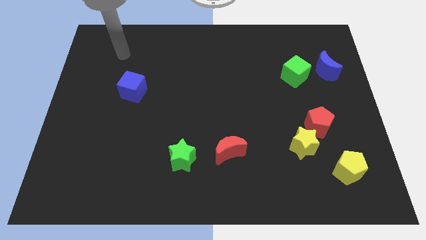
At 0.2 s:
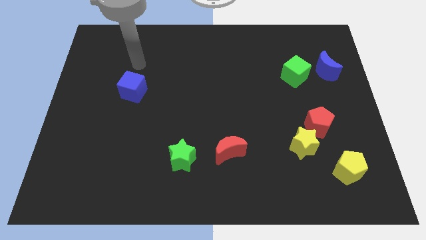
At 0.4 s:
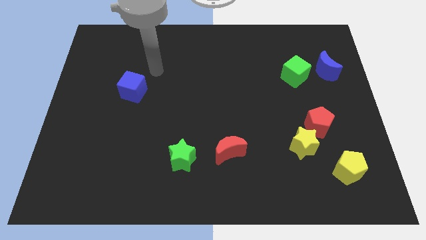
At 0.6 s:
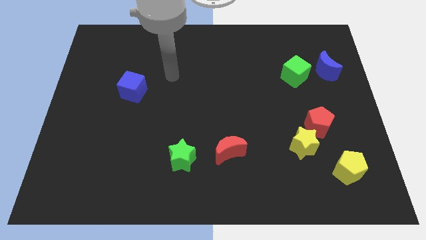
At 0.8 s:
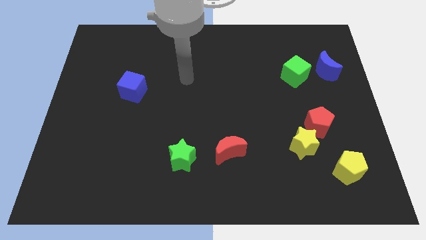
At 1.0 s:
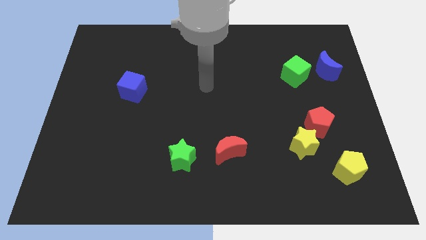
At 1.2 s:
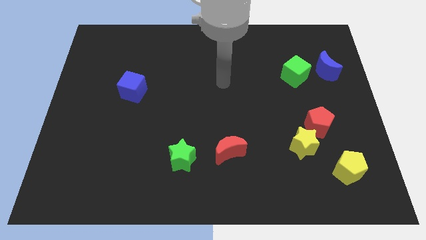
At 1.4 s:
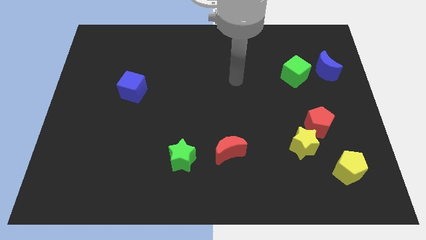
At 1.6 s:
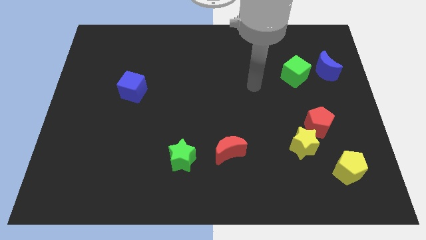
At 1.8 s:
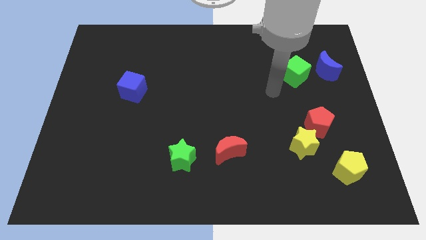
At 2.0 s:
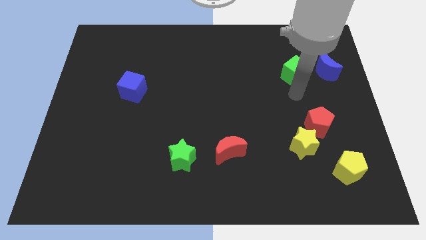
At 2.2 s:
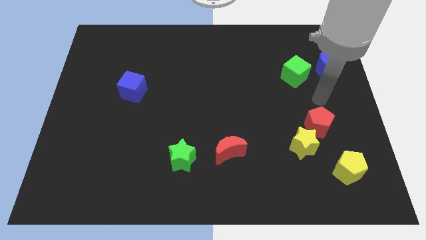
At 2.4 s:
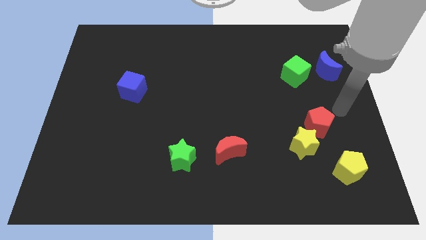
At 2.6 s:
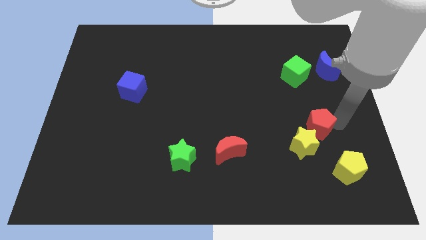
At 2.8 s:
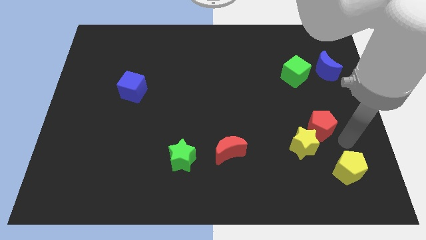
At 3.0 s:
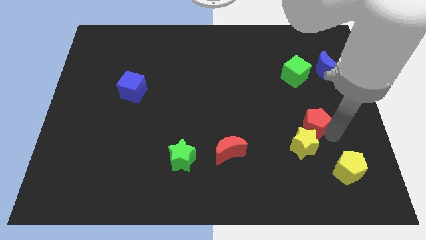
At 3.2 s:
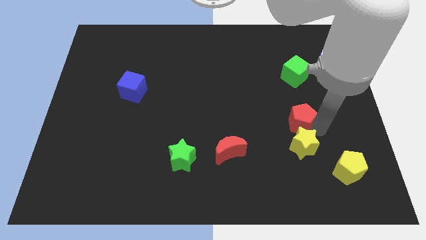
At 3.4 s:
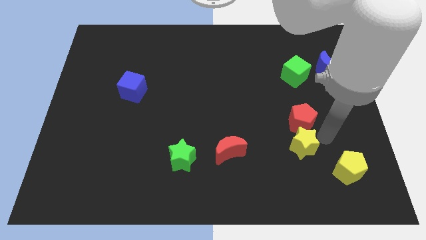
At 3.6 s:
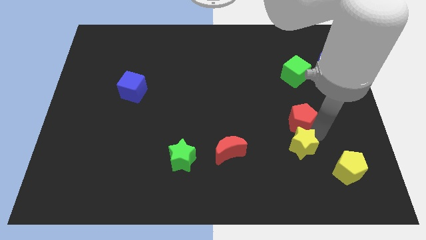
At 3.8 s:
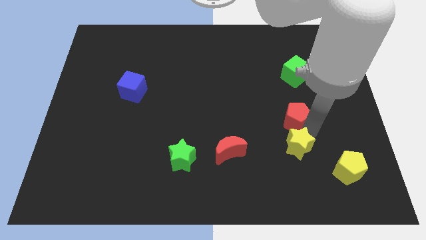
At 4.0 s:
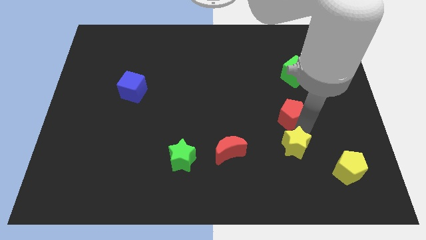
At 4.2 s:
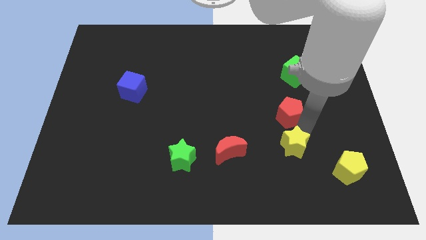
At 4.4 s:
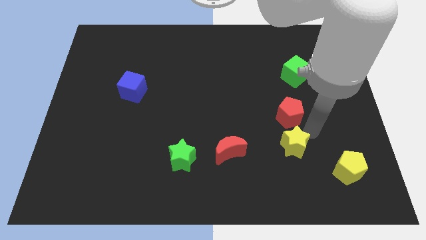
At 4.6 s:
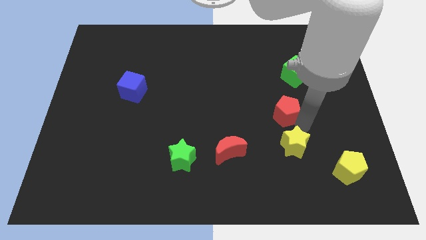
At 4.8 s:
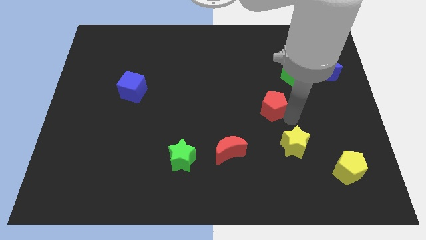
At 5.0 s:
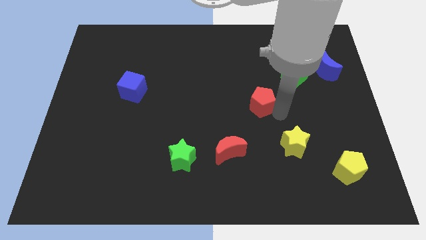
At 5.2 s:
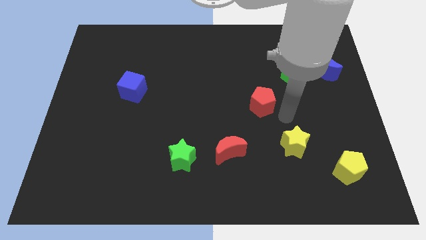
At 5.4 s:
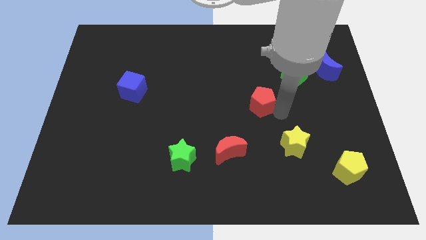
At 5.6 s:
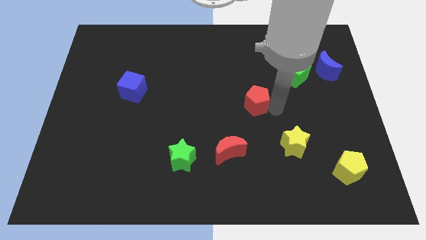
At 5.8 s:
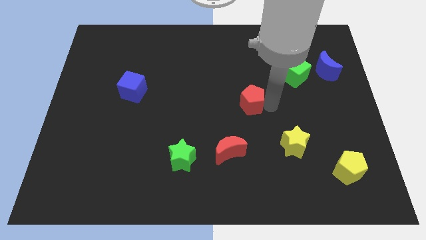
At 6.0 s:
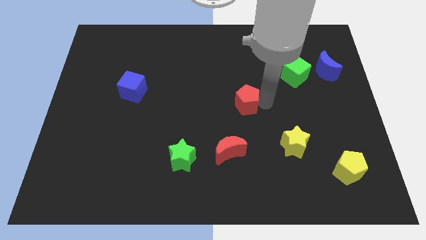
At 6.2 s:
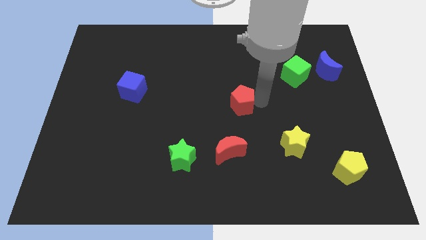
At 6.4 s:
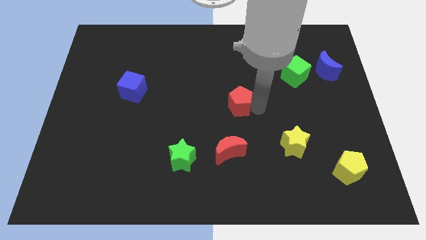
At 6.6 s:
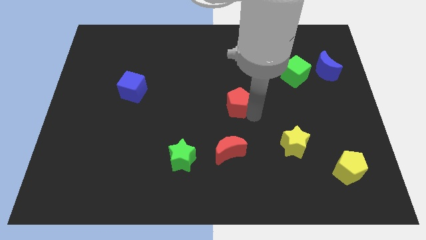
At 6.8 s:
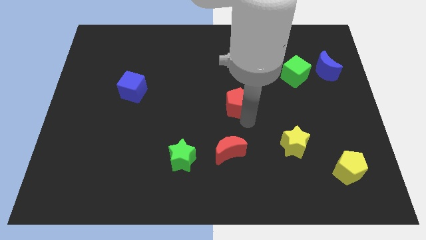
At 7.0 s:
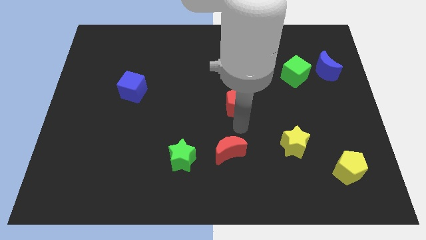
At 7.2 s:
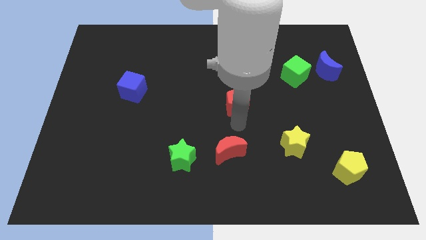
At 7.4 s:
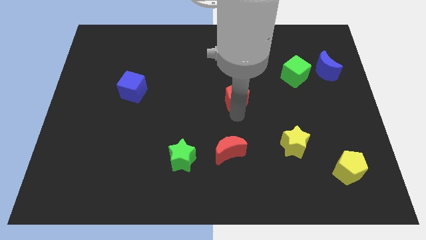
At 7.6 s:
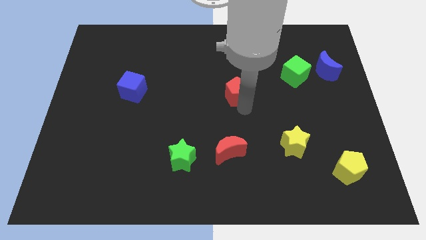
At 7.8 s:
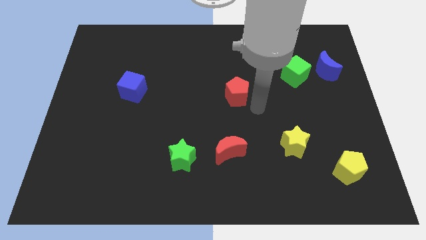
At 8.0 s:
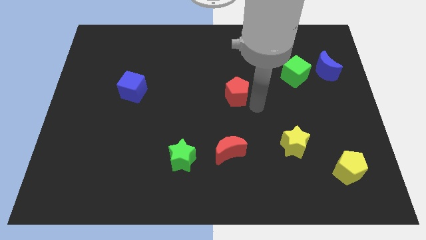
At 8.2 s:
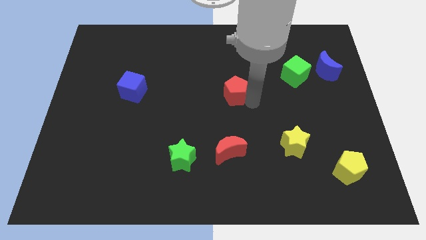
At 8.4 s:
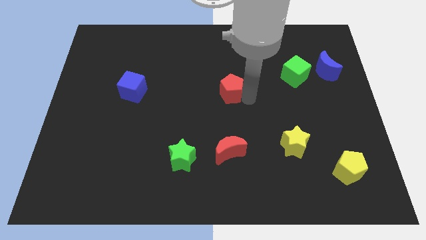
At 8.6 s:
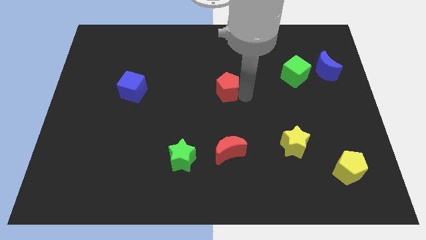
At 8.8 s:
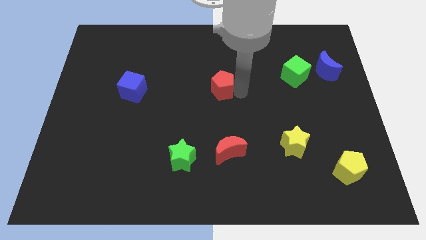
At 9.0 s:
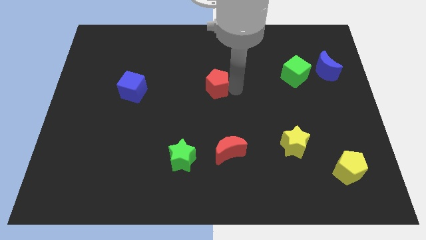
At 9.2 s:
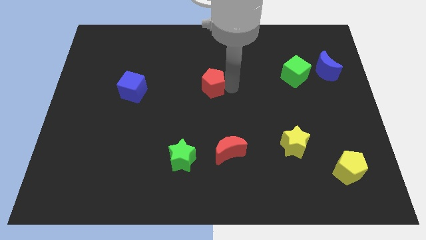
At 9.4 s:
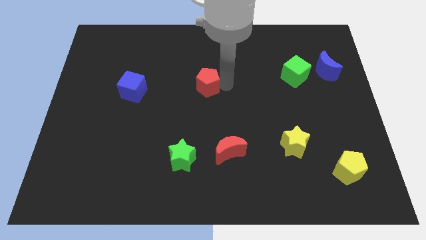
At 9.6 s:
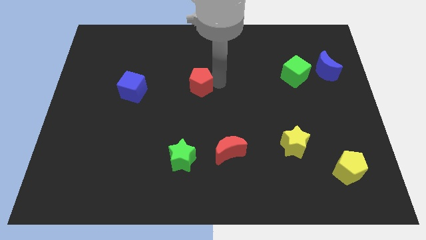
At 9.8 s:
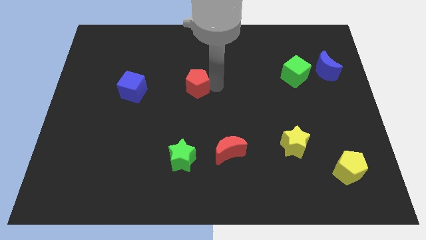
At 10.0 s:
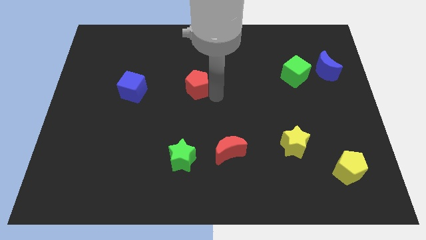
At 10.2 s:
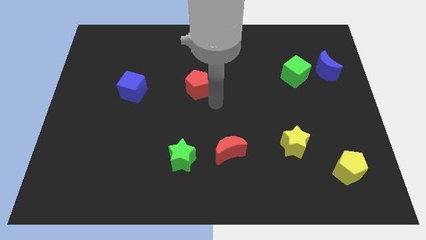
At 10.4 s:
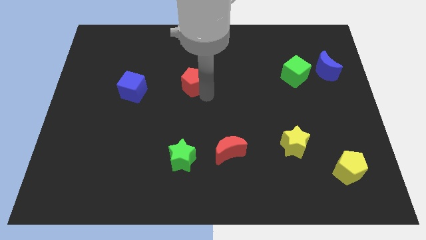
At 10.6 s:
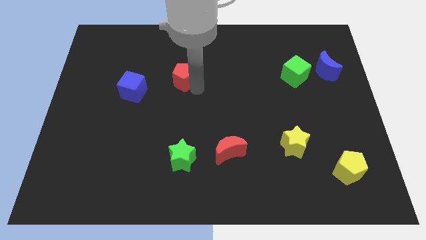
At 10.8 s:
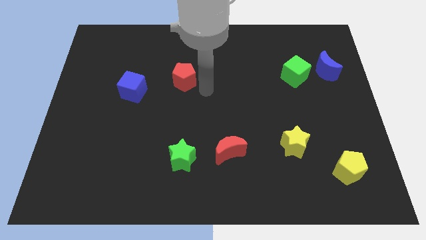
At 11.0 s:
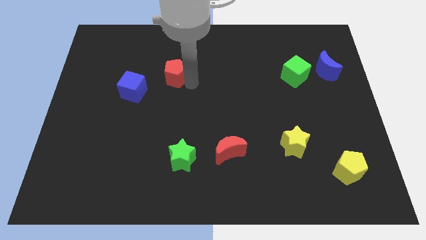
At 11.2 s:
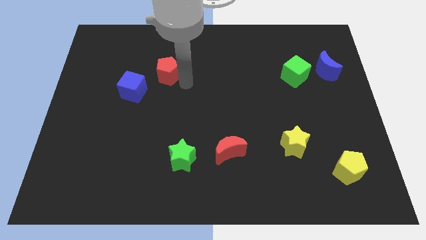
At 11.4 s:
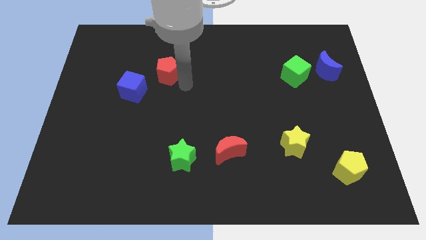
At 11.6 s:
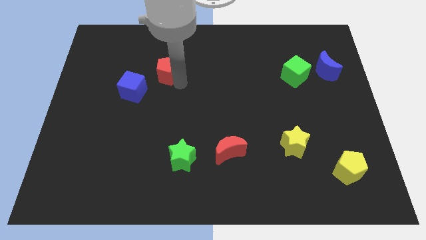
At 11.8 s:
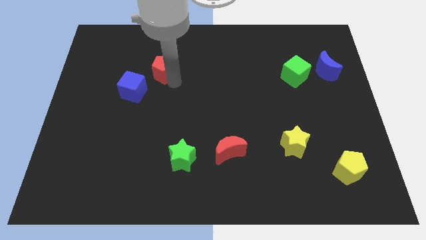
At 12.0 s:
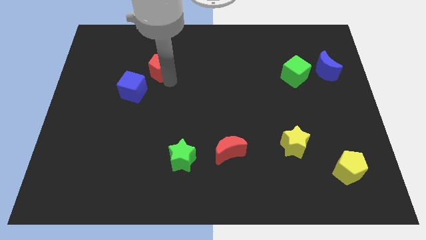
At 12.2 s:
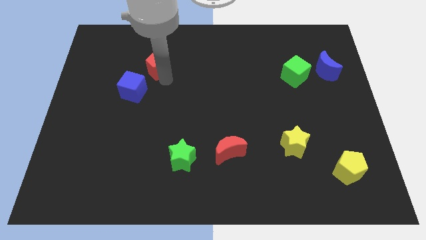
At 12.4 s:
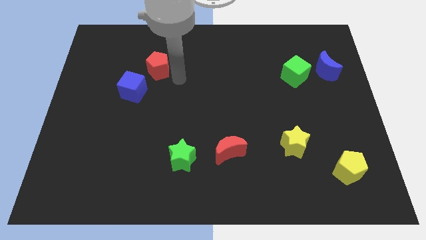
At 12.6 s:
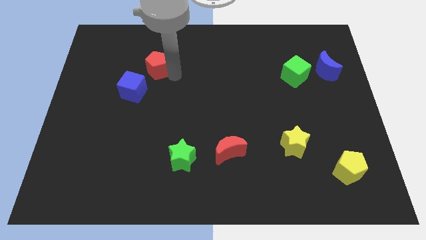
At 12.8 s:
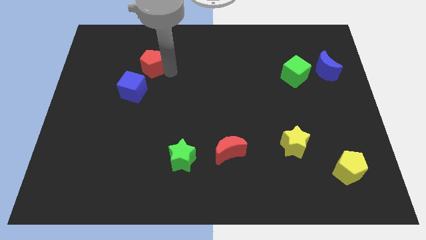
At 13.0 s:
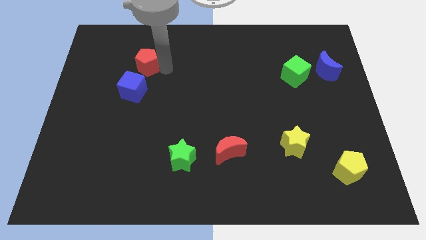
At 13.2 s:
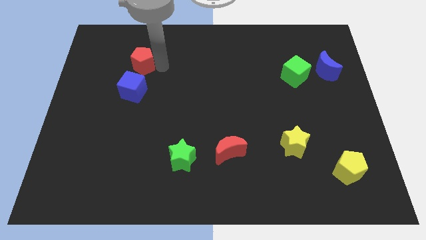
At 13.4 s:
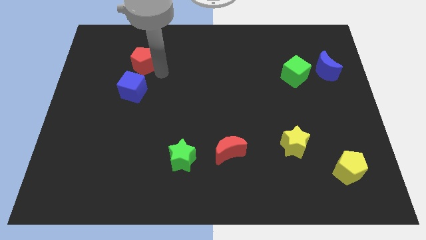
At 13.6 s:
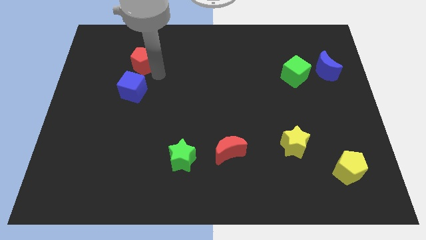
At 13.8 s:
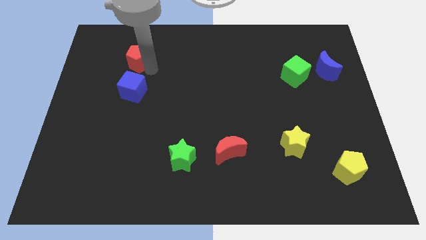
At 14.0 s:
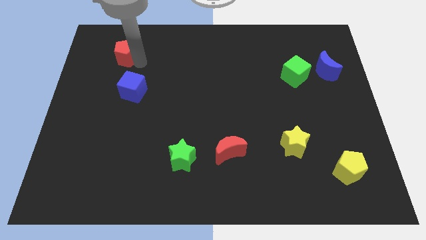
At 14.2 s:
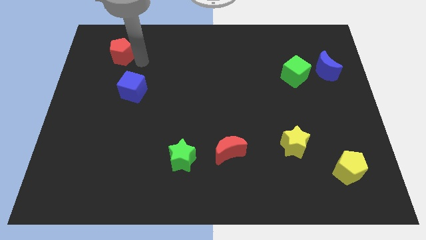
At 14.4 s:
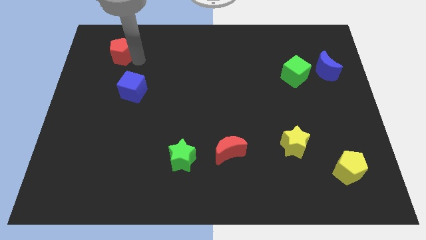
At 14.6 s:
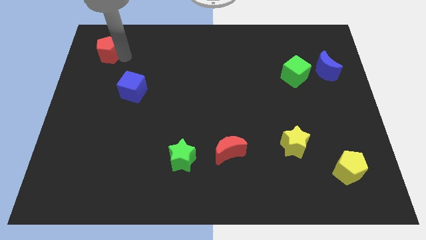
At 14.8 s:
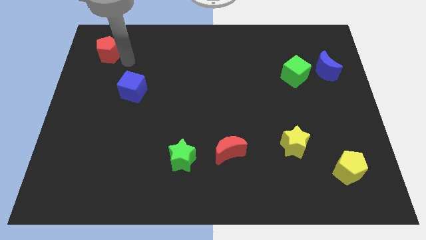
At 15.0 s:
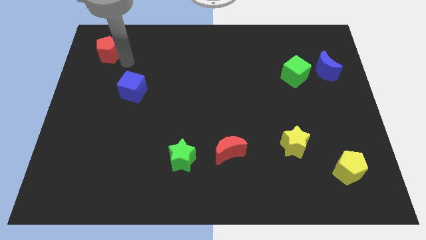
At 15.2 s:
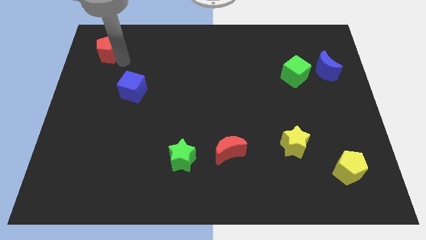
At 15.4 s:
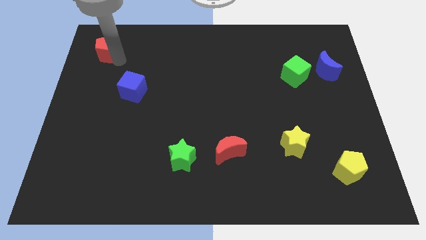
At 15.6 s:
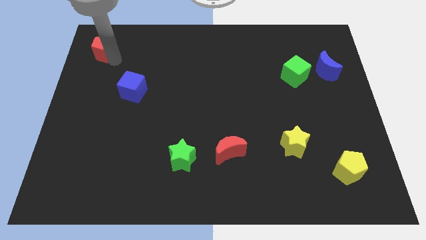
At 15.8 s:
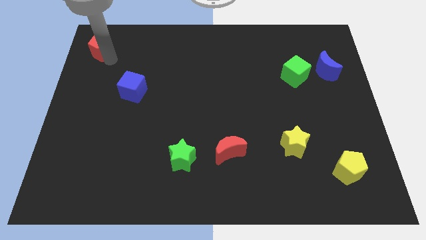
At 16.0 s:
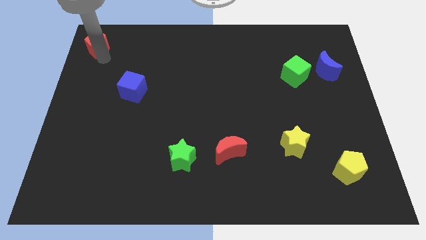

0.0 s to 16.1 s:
push the red pentagon to the top left corner
